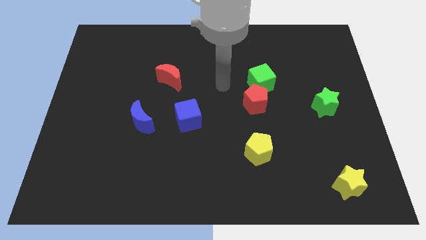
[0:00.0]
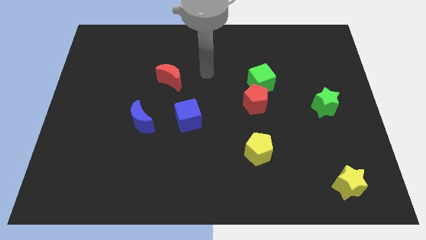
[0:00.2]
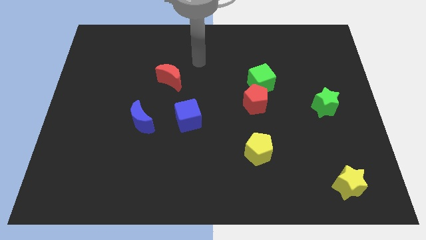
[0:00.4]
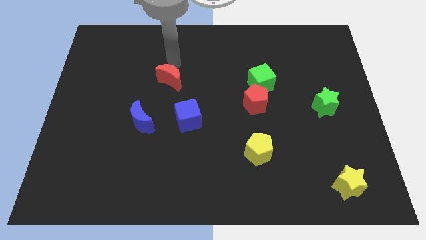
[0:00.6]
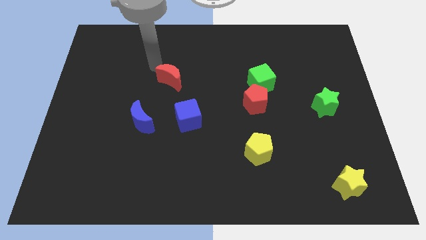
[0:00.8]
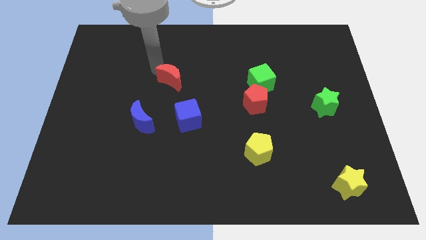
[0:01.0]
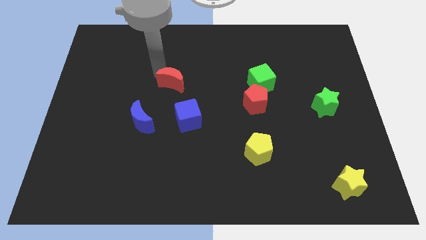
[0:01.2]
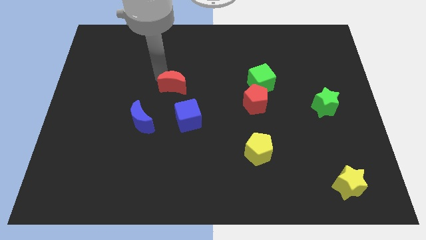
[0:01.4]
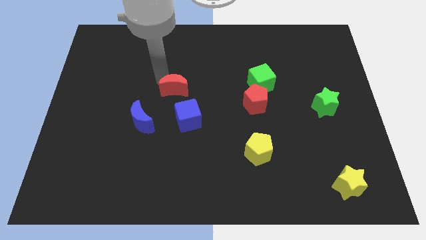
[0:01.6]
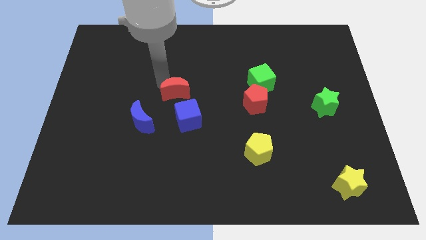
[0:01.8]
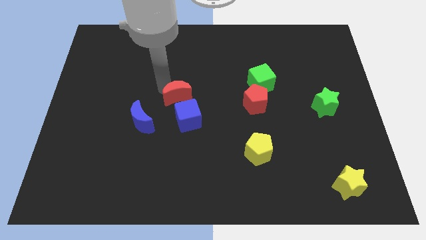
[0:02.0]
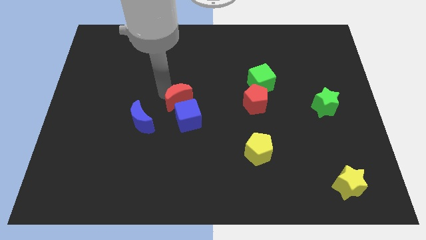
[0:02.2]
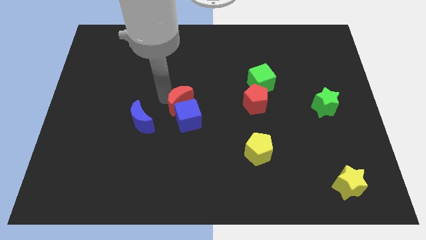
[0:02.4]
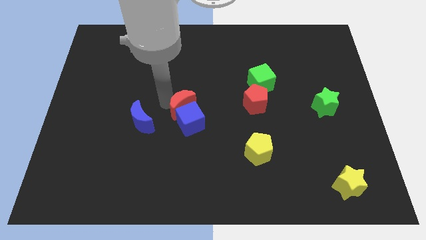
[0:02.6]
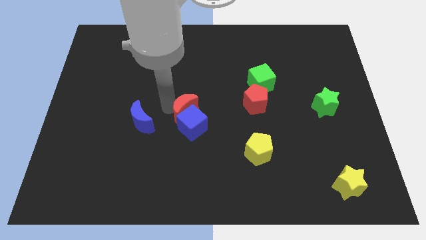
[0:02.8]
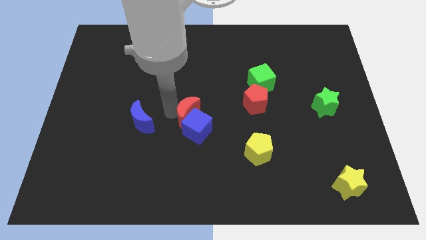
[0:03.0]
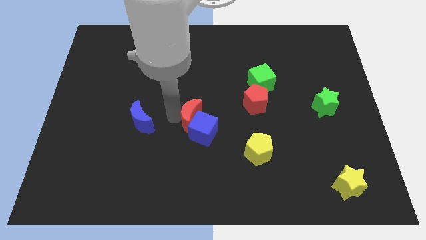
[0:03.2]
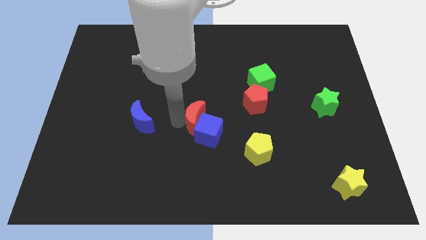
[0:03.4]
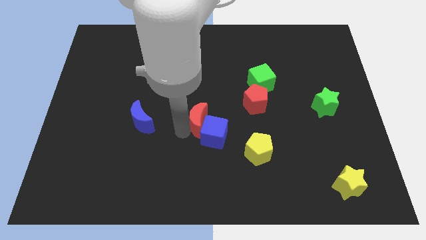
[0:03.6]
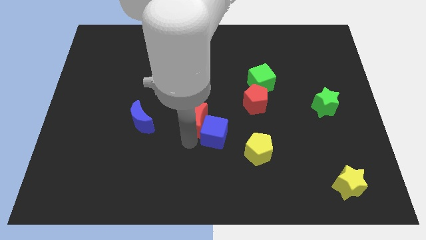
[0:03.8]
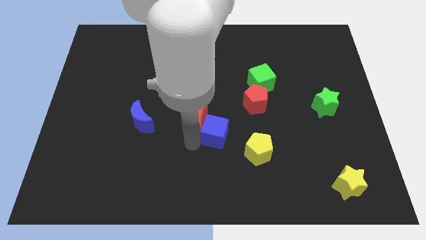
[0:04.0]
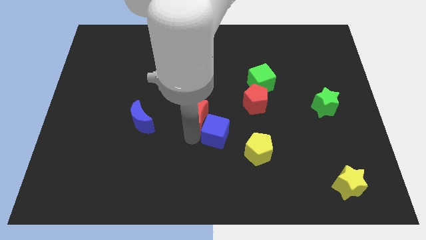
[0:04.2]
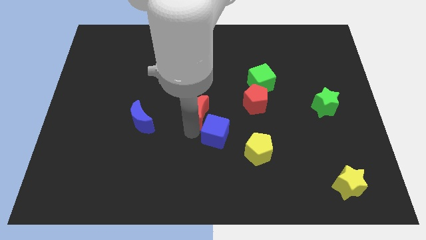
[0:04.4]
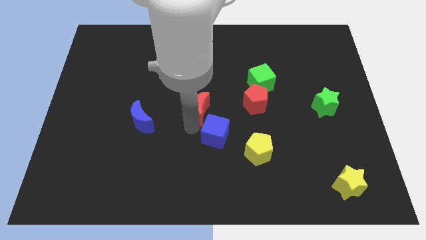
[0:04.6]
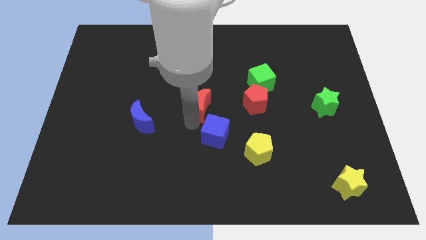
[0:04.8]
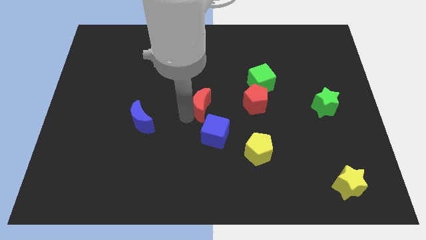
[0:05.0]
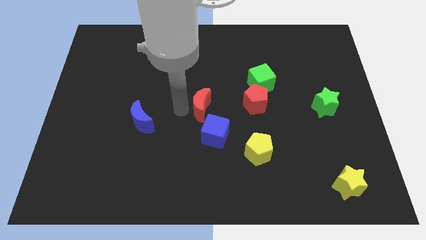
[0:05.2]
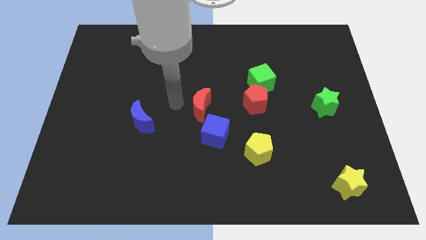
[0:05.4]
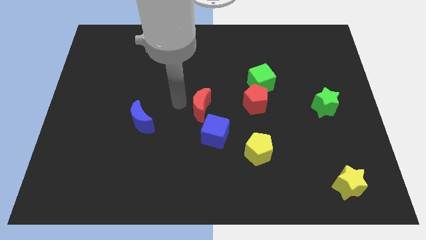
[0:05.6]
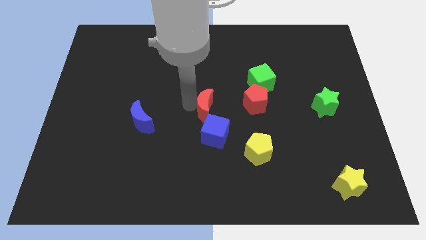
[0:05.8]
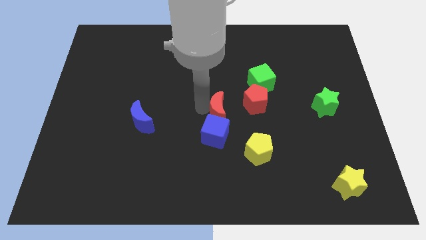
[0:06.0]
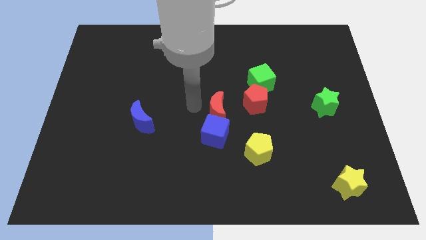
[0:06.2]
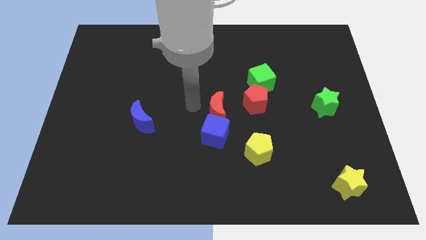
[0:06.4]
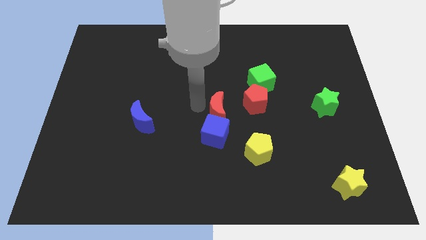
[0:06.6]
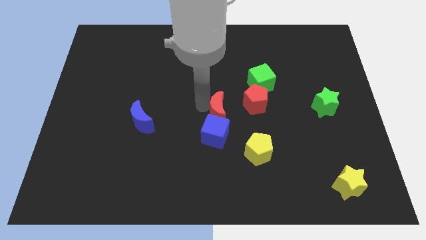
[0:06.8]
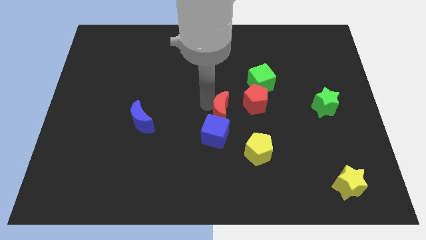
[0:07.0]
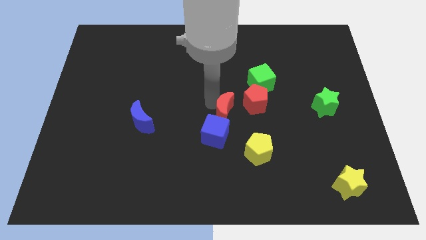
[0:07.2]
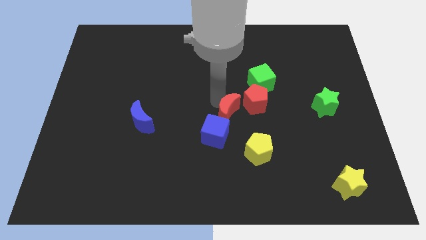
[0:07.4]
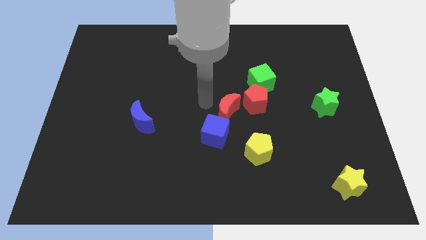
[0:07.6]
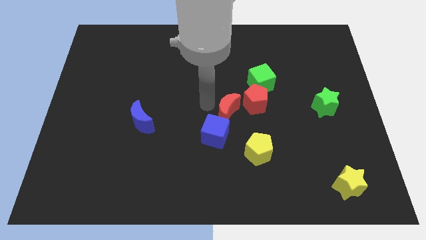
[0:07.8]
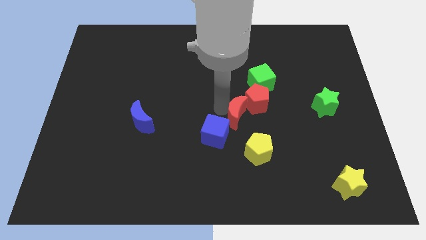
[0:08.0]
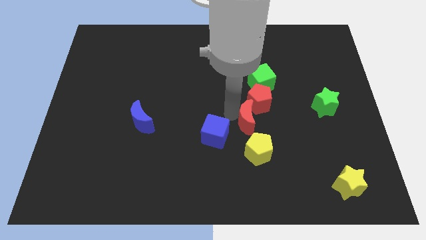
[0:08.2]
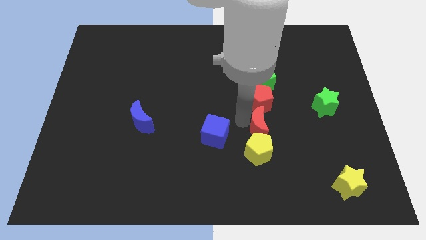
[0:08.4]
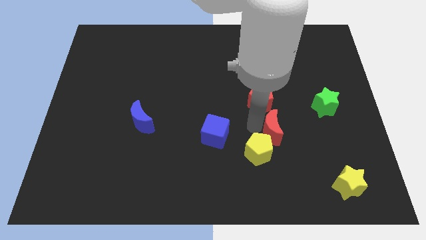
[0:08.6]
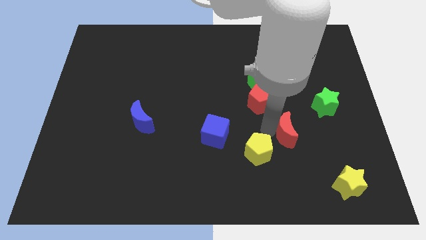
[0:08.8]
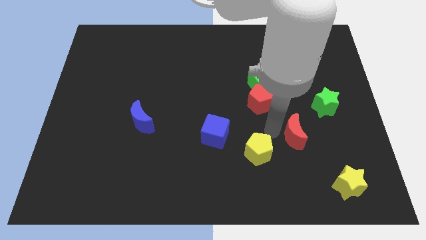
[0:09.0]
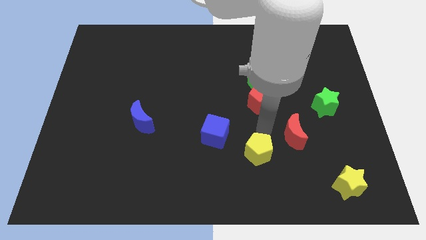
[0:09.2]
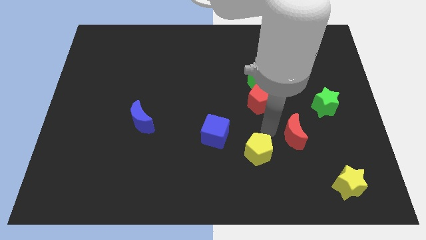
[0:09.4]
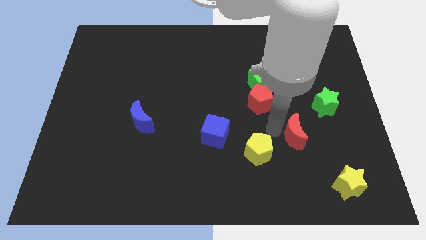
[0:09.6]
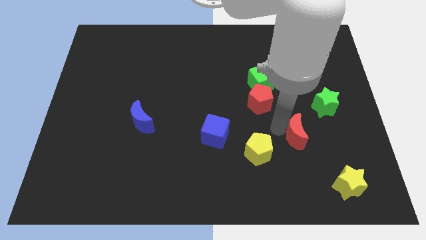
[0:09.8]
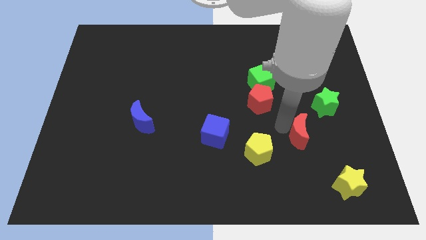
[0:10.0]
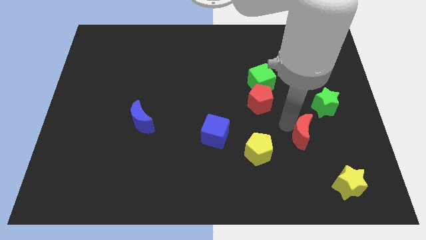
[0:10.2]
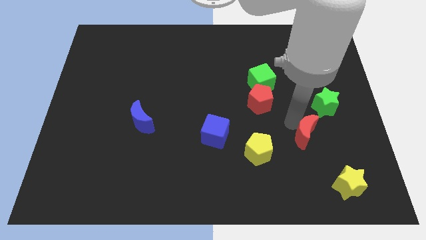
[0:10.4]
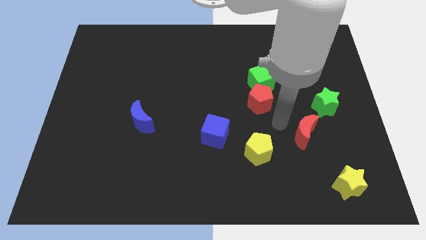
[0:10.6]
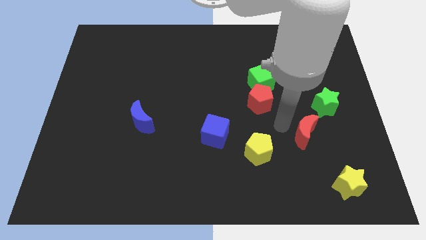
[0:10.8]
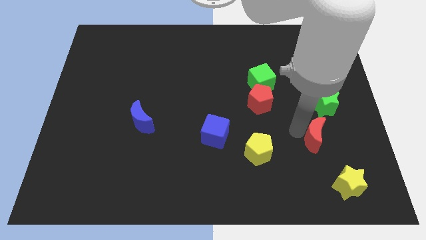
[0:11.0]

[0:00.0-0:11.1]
slide the red moon to the bottom side of the green star

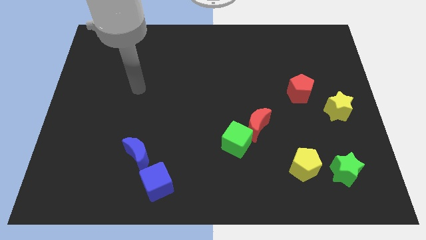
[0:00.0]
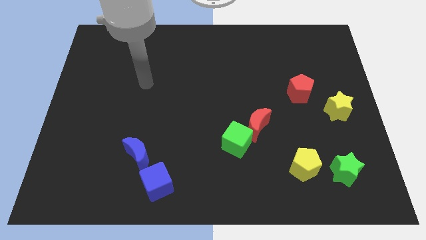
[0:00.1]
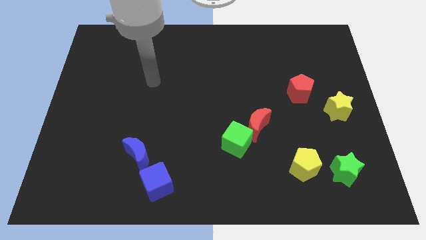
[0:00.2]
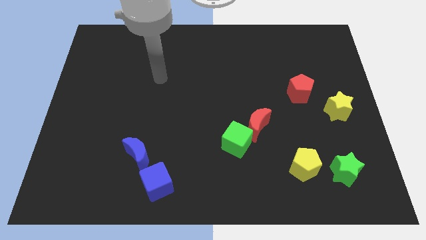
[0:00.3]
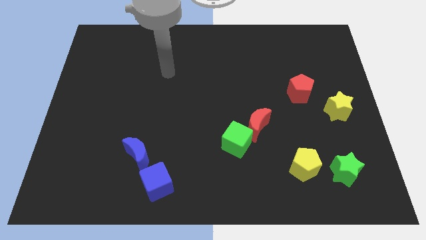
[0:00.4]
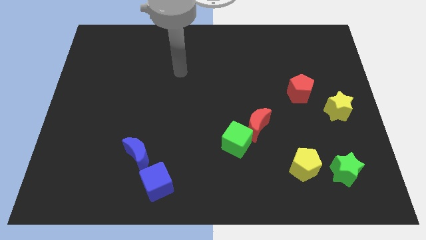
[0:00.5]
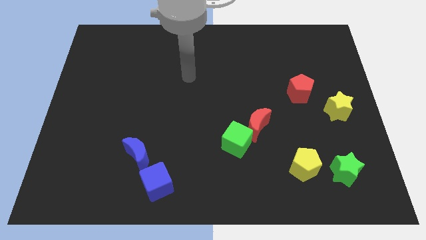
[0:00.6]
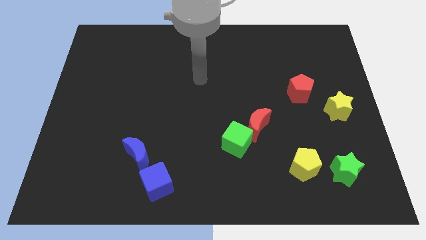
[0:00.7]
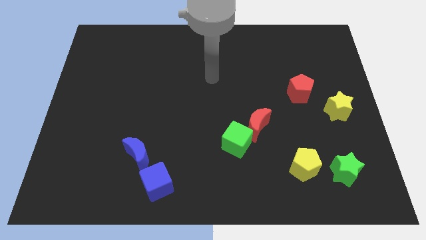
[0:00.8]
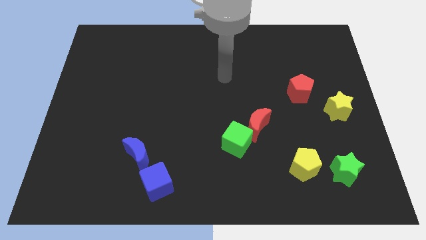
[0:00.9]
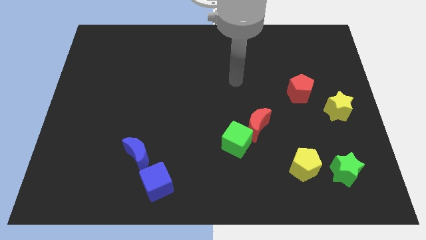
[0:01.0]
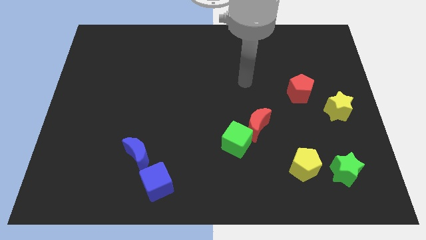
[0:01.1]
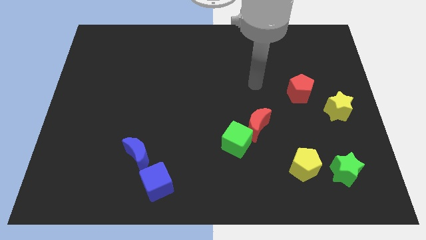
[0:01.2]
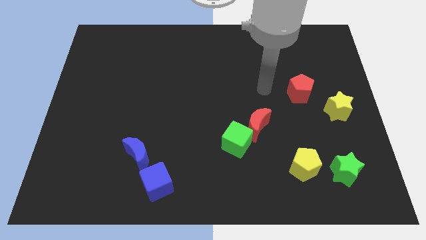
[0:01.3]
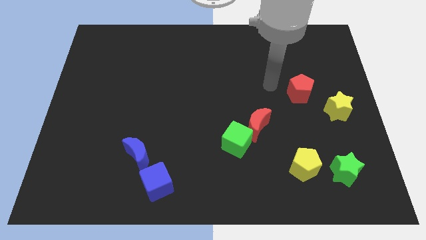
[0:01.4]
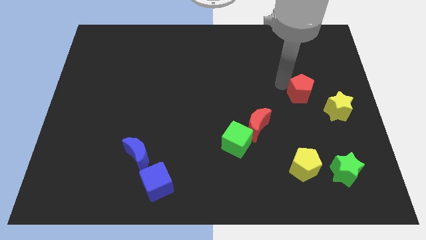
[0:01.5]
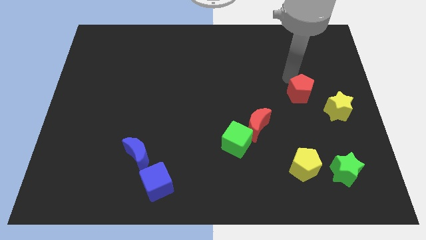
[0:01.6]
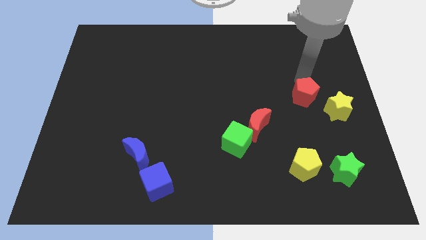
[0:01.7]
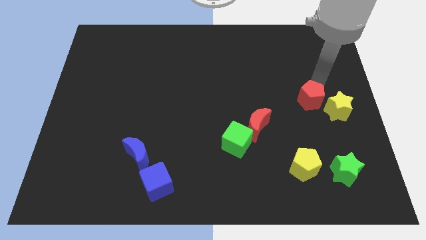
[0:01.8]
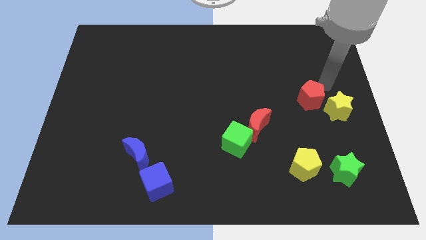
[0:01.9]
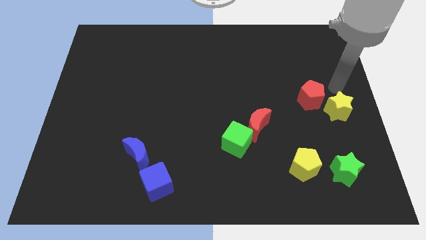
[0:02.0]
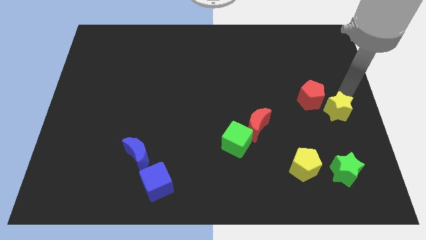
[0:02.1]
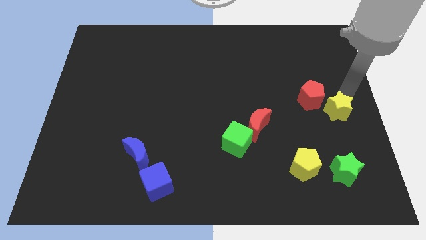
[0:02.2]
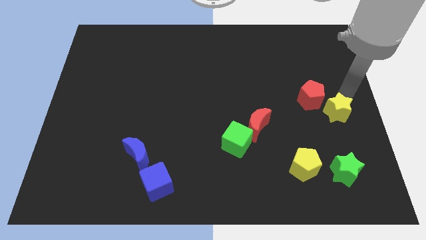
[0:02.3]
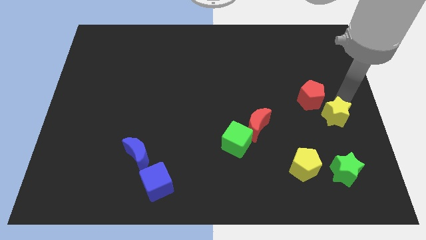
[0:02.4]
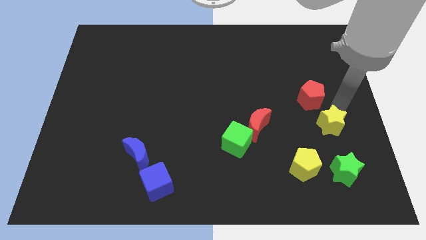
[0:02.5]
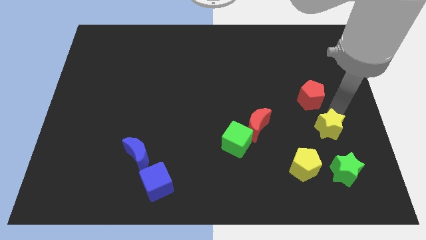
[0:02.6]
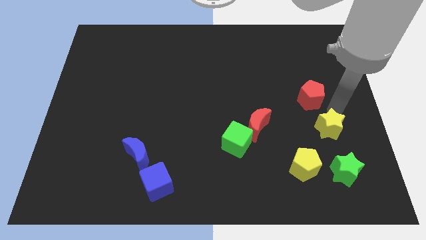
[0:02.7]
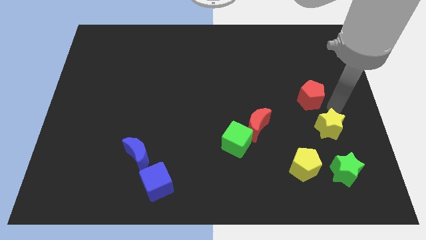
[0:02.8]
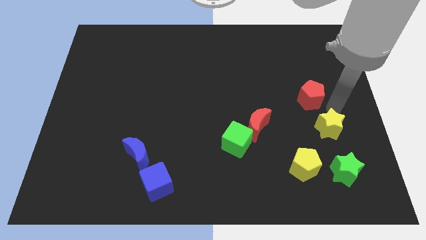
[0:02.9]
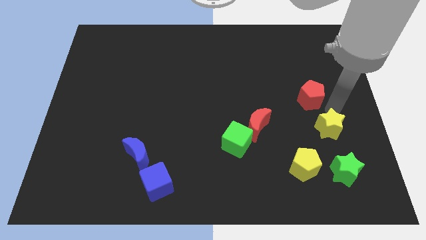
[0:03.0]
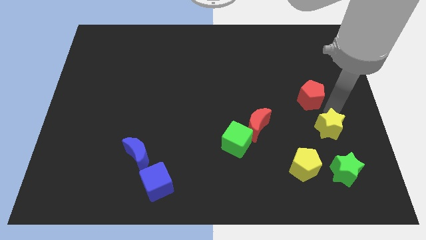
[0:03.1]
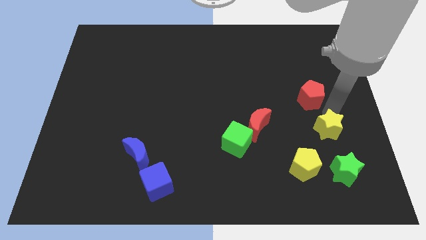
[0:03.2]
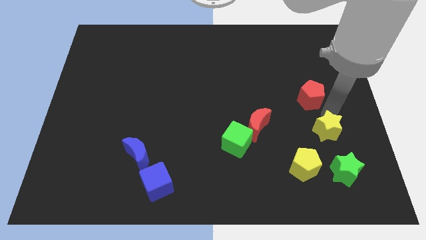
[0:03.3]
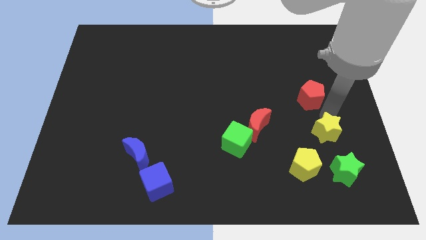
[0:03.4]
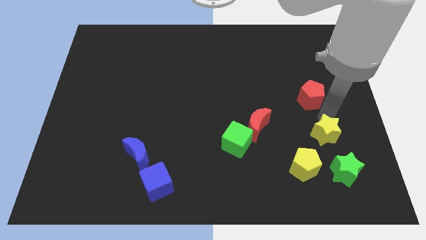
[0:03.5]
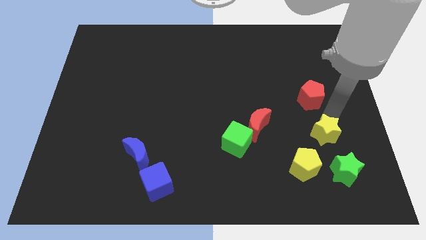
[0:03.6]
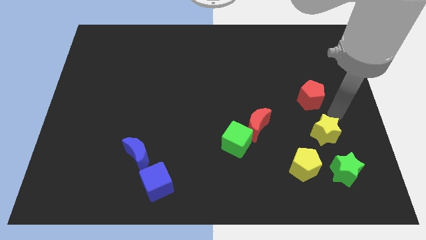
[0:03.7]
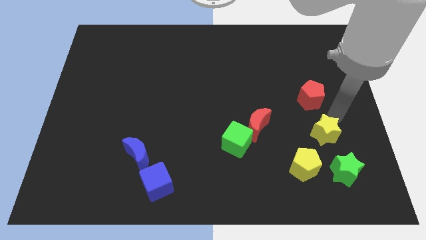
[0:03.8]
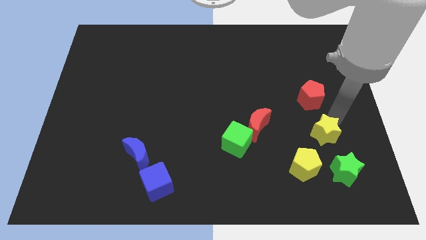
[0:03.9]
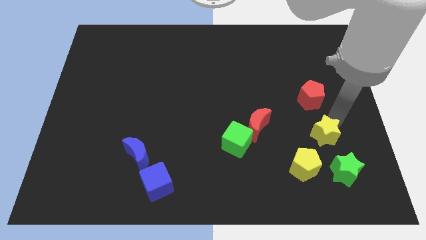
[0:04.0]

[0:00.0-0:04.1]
move the yellow star to the top left side of the green star
